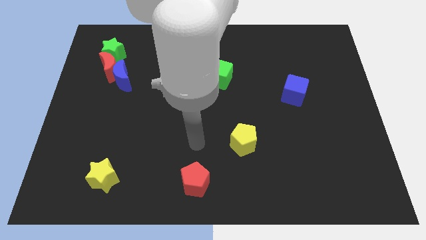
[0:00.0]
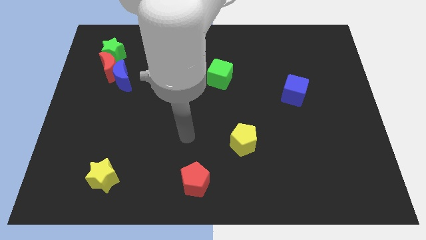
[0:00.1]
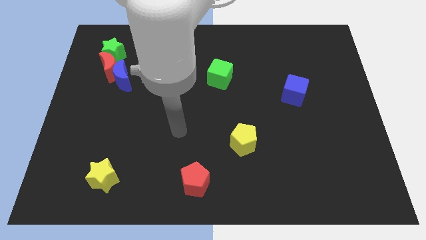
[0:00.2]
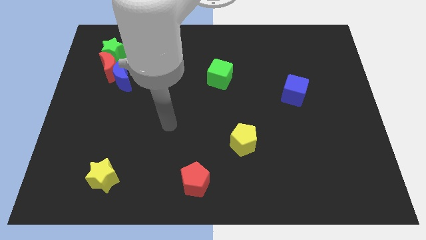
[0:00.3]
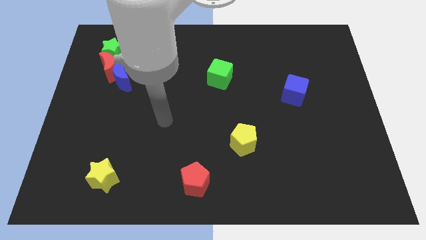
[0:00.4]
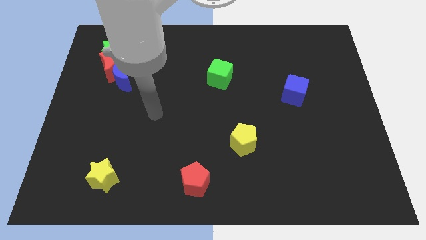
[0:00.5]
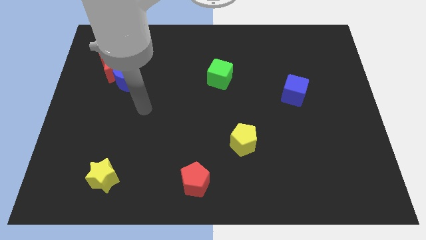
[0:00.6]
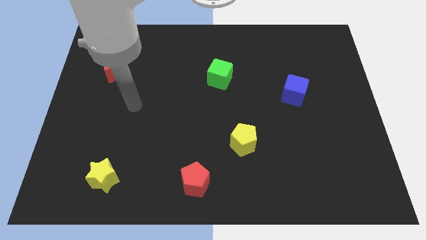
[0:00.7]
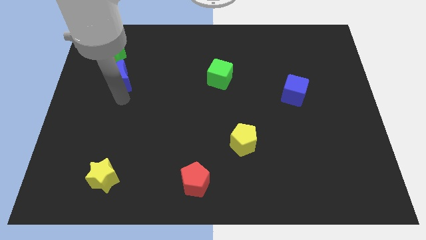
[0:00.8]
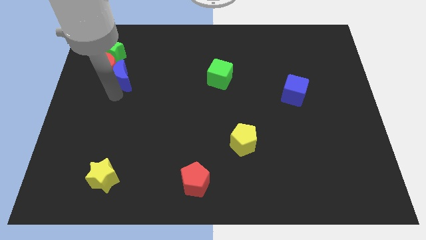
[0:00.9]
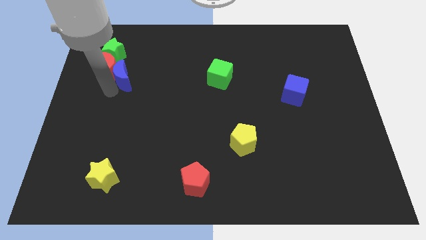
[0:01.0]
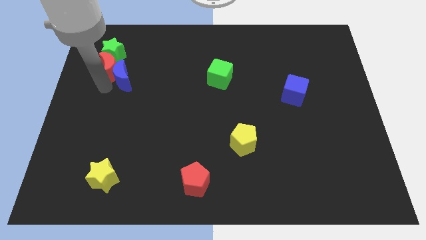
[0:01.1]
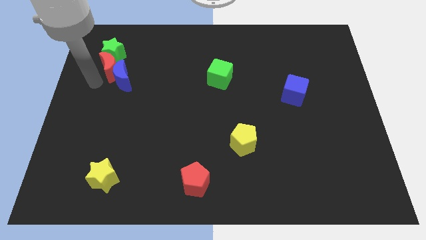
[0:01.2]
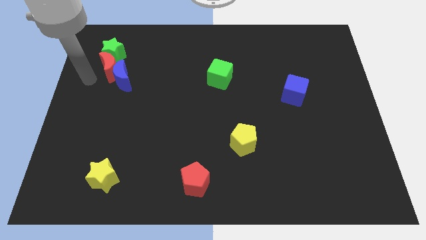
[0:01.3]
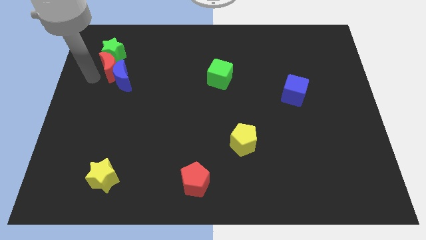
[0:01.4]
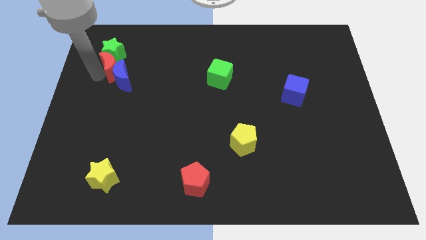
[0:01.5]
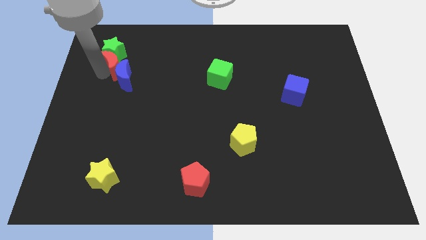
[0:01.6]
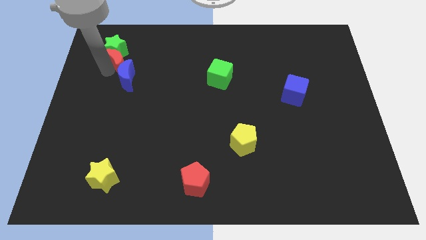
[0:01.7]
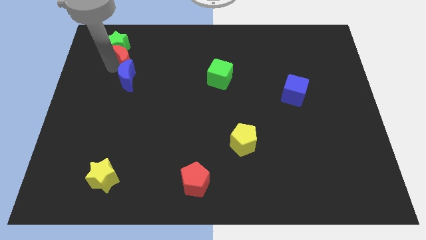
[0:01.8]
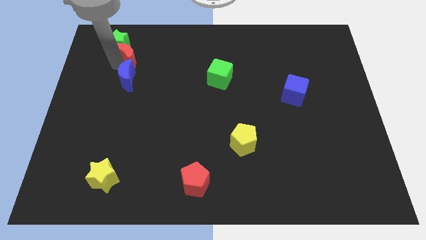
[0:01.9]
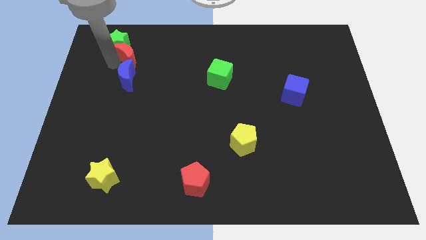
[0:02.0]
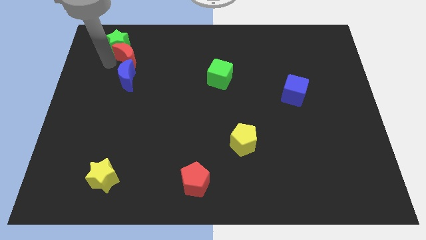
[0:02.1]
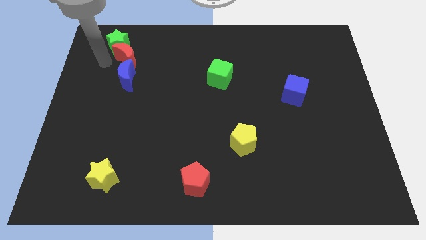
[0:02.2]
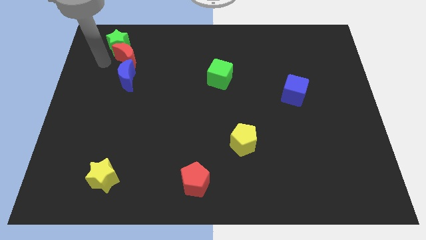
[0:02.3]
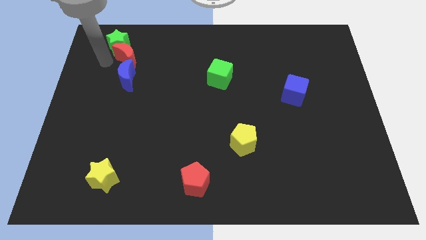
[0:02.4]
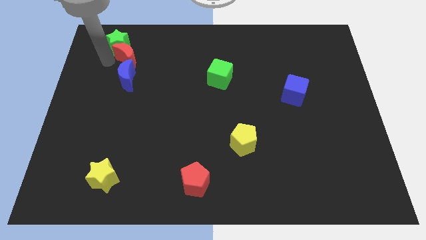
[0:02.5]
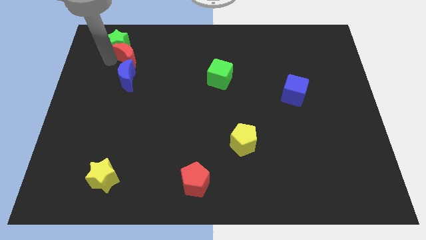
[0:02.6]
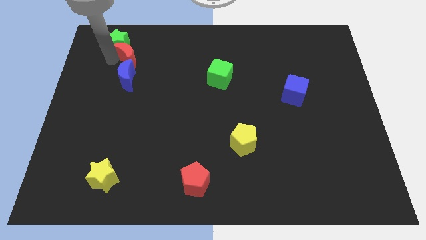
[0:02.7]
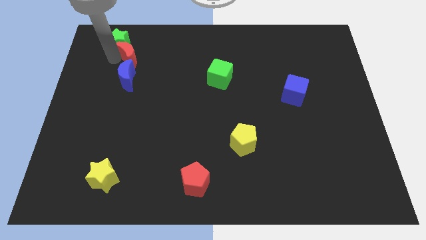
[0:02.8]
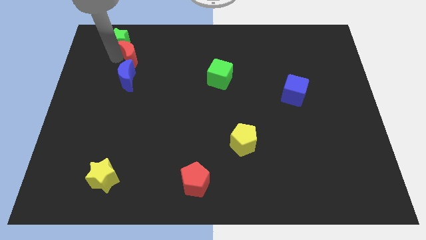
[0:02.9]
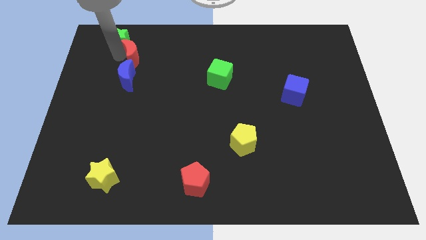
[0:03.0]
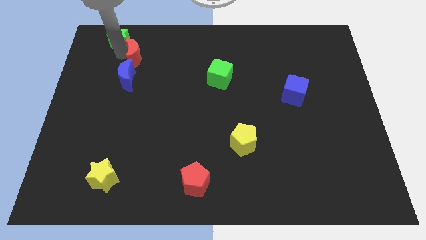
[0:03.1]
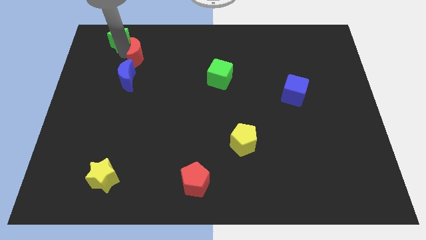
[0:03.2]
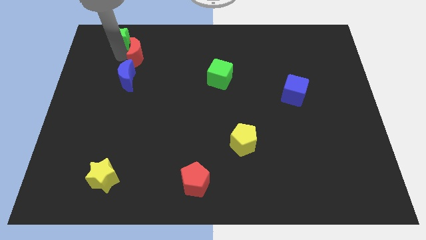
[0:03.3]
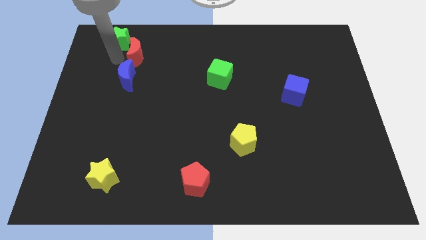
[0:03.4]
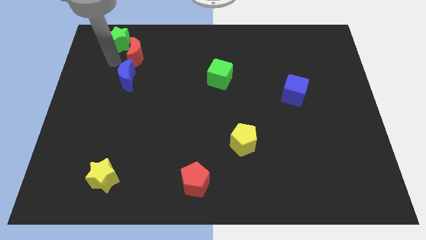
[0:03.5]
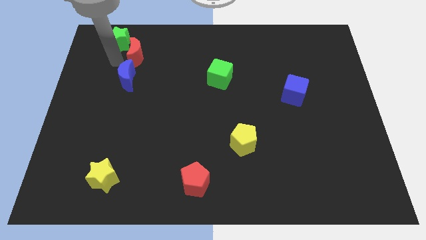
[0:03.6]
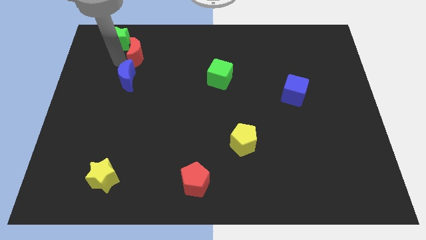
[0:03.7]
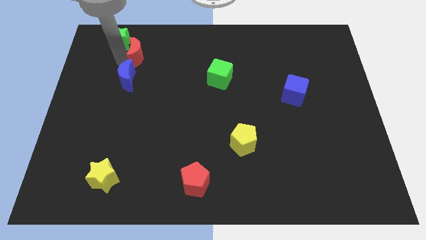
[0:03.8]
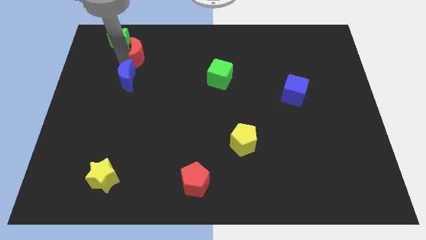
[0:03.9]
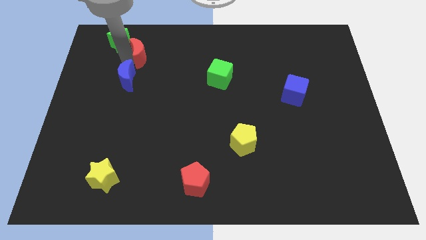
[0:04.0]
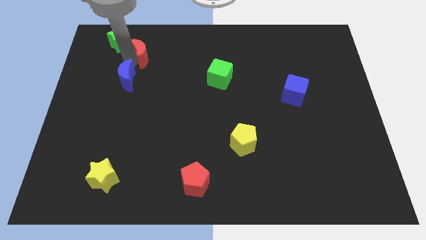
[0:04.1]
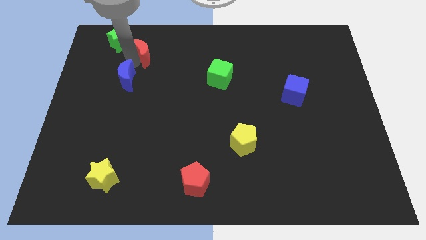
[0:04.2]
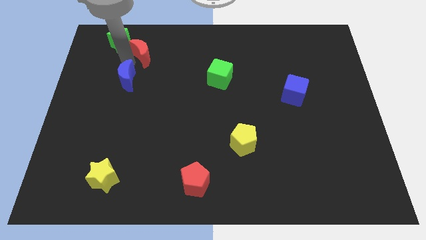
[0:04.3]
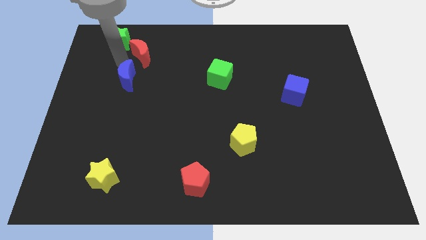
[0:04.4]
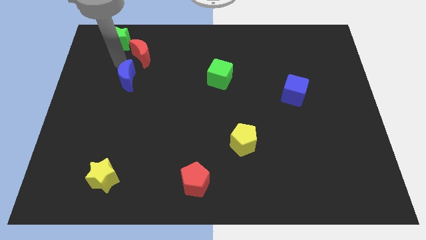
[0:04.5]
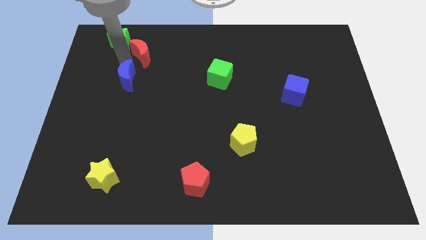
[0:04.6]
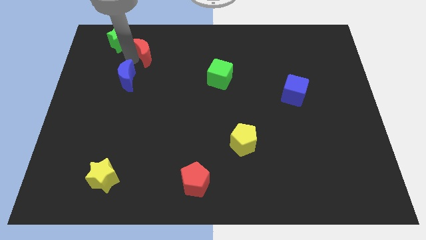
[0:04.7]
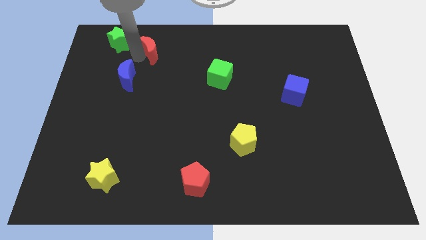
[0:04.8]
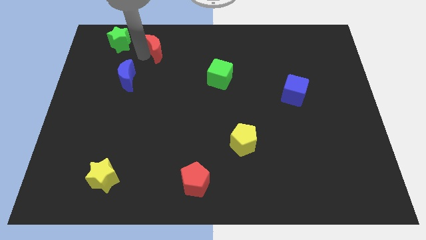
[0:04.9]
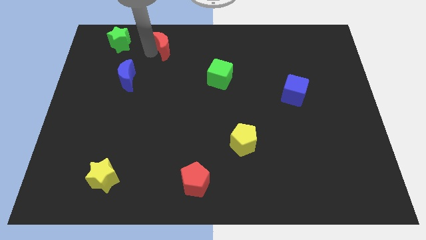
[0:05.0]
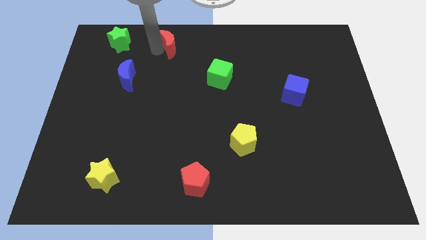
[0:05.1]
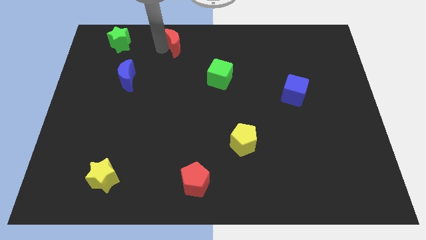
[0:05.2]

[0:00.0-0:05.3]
move the red moon to the towards your base
